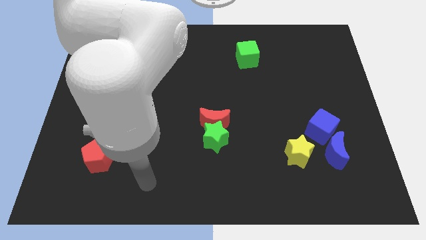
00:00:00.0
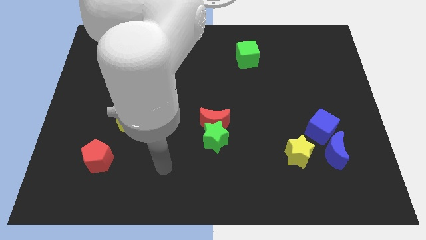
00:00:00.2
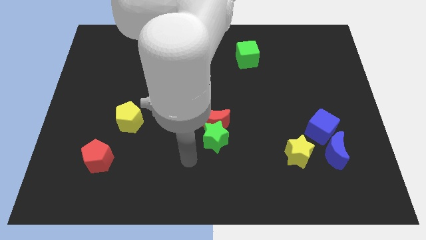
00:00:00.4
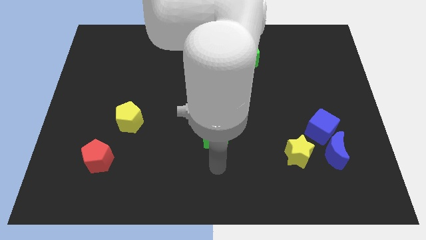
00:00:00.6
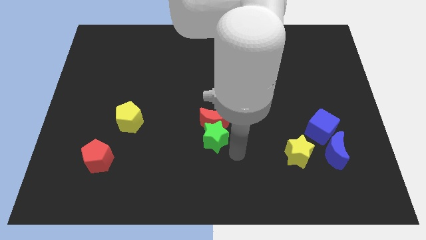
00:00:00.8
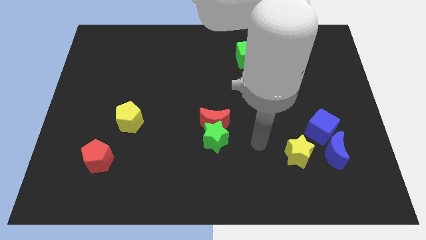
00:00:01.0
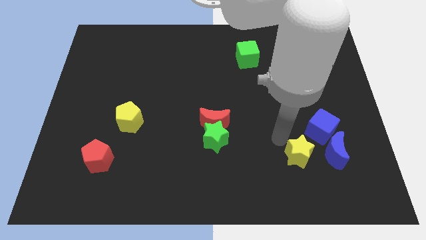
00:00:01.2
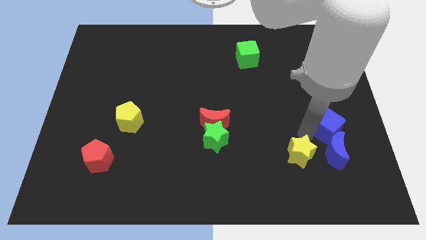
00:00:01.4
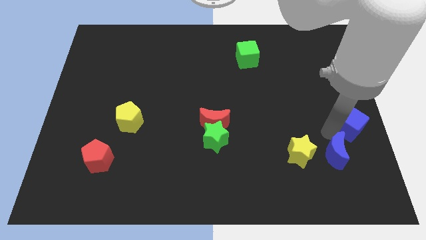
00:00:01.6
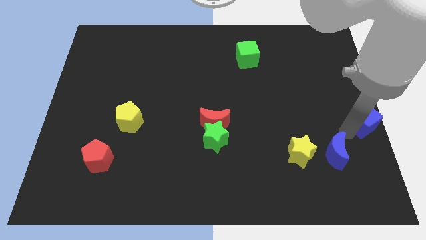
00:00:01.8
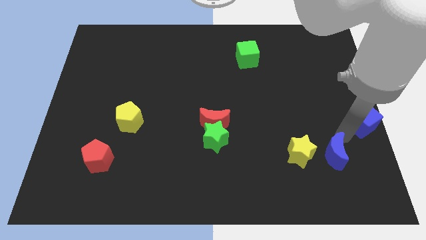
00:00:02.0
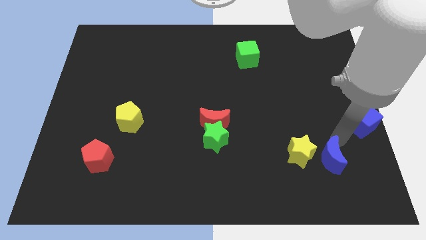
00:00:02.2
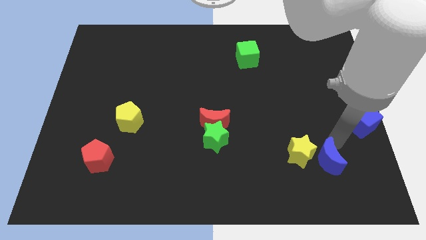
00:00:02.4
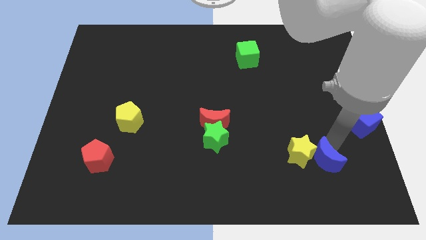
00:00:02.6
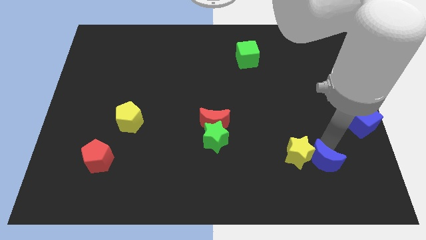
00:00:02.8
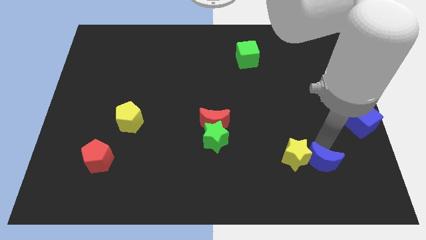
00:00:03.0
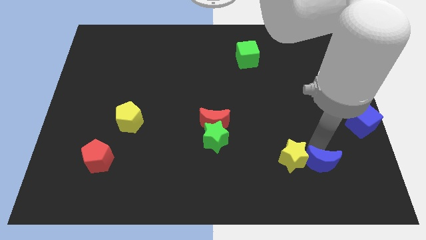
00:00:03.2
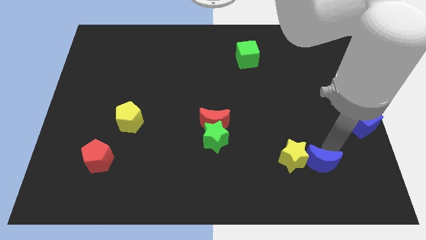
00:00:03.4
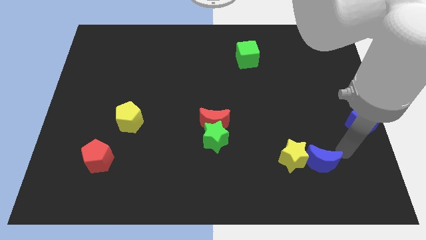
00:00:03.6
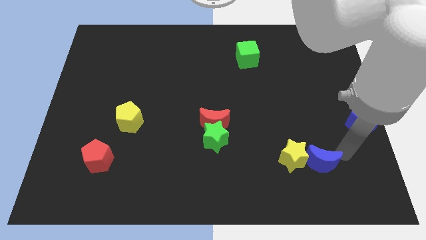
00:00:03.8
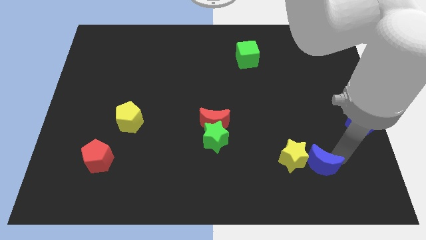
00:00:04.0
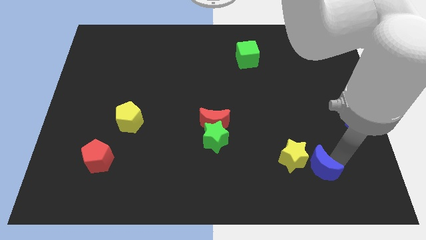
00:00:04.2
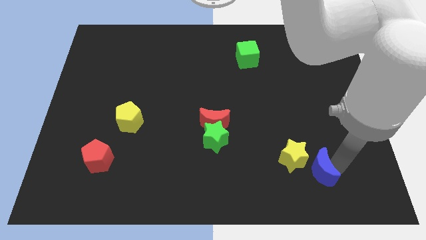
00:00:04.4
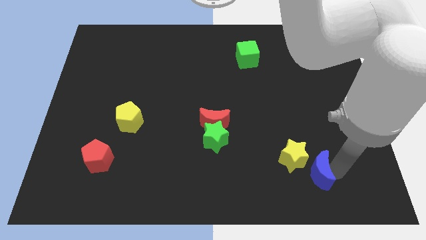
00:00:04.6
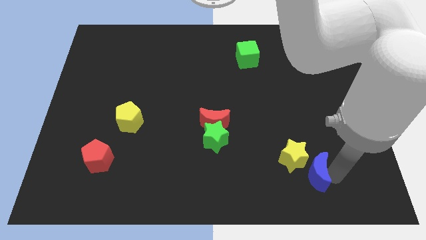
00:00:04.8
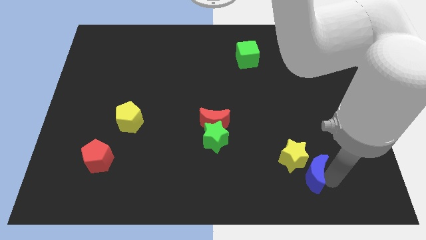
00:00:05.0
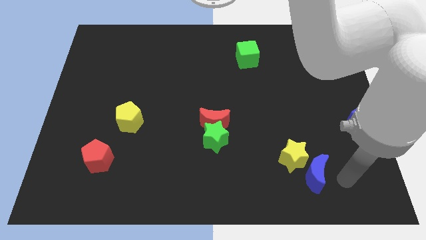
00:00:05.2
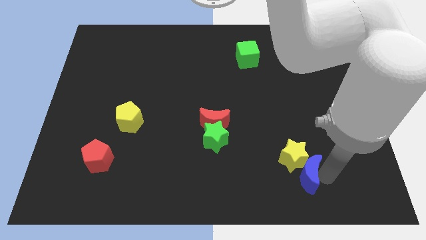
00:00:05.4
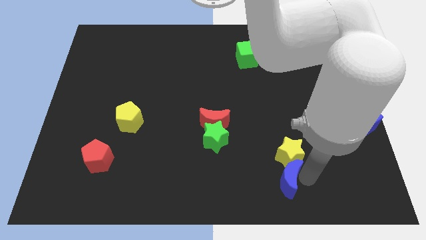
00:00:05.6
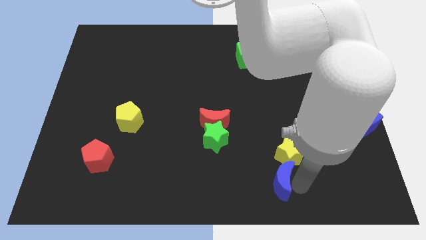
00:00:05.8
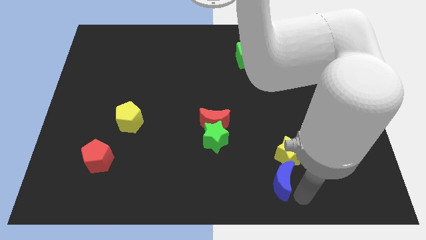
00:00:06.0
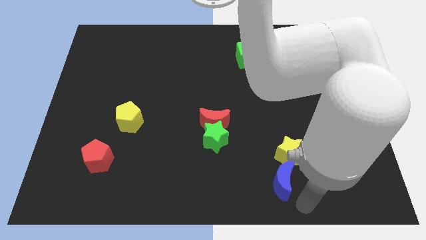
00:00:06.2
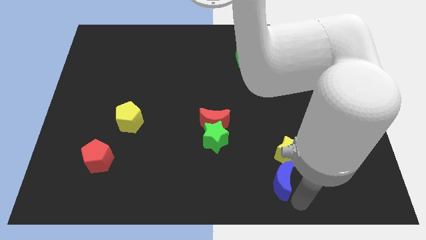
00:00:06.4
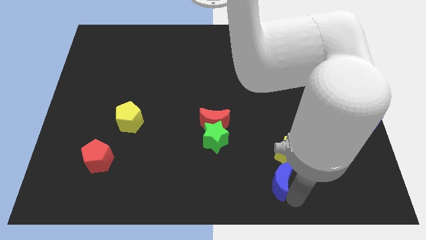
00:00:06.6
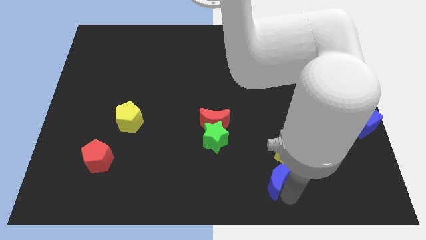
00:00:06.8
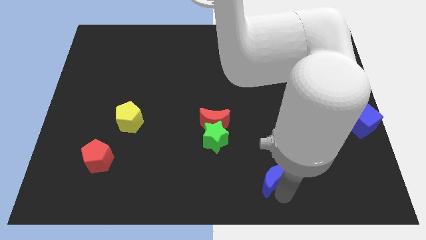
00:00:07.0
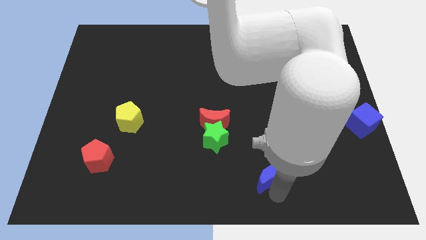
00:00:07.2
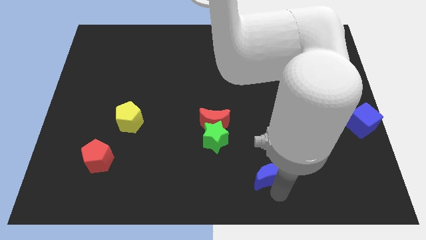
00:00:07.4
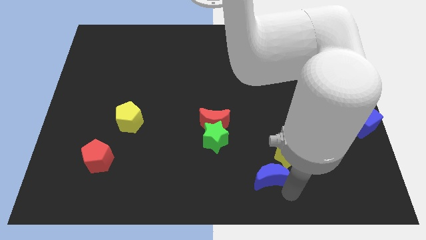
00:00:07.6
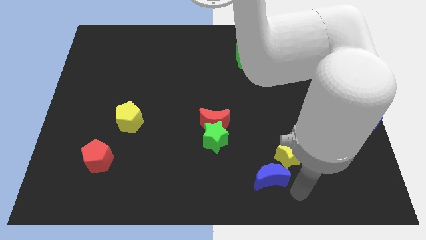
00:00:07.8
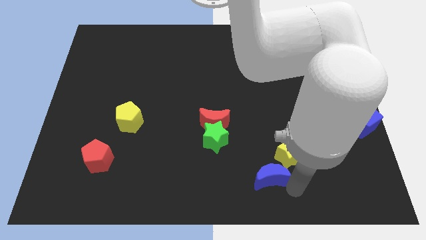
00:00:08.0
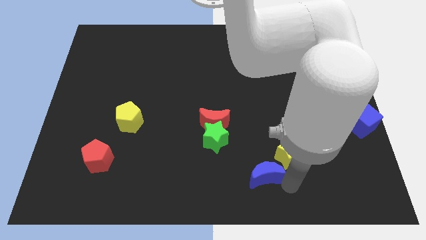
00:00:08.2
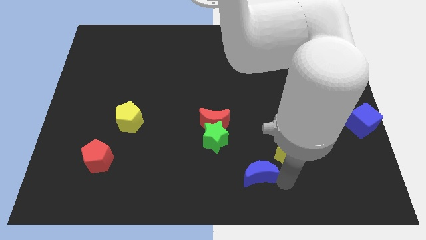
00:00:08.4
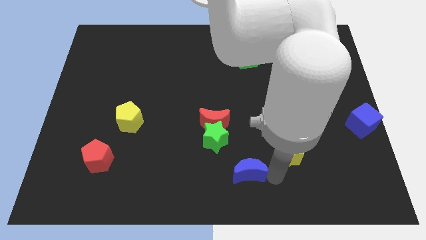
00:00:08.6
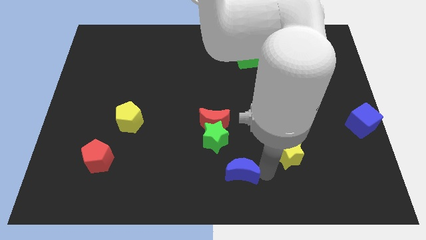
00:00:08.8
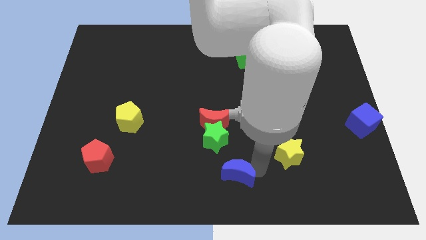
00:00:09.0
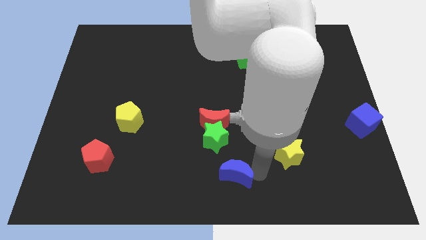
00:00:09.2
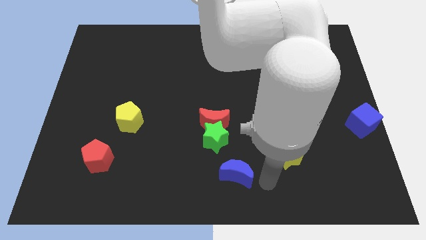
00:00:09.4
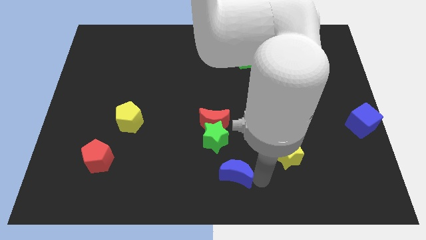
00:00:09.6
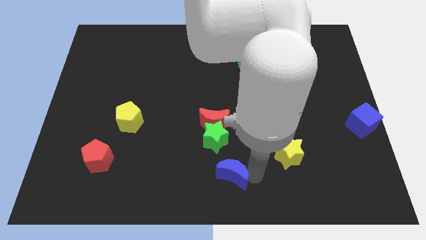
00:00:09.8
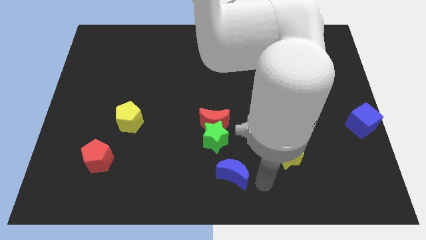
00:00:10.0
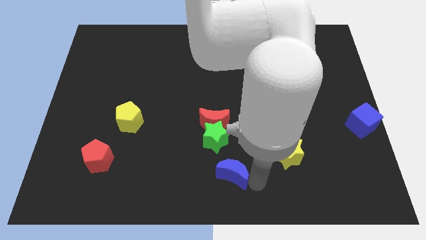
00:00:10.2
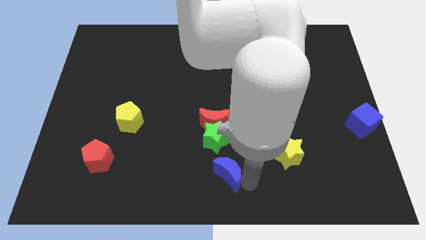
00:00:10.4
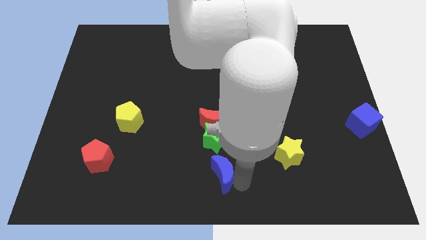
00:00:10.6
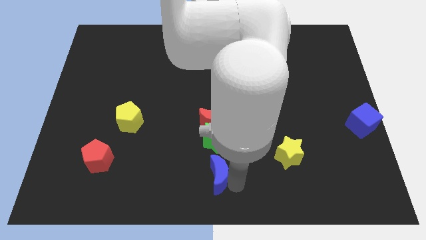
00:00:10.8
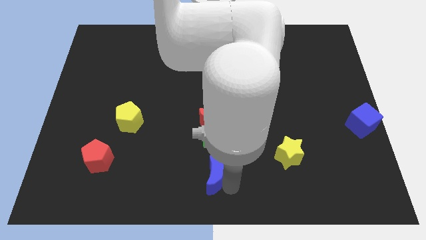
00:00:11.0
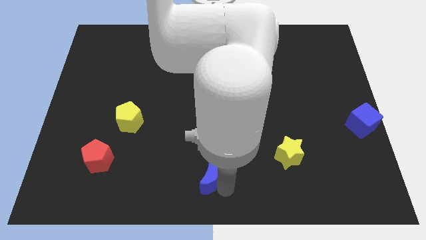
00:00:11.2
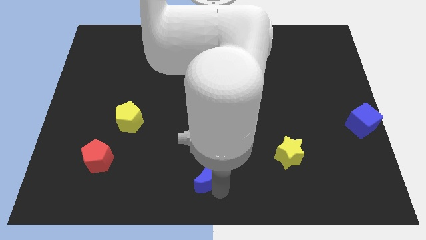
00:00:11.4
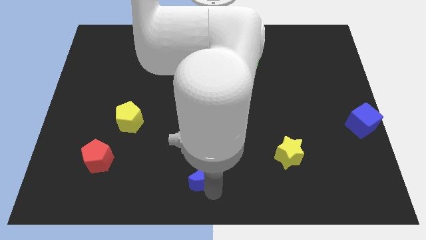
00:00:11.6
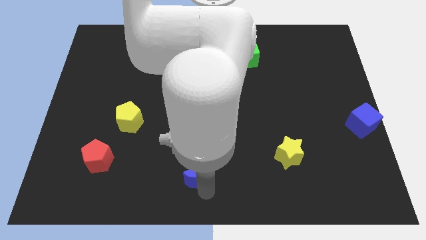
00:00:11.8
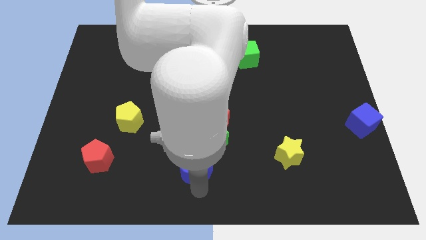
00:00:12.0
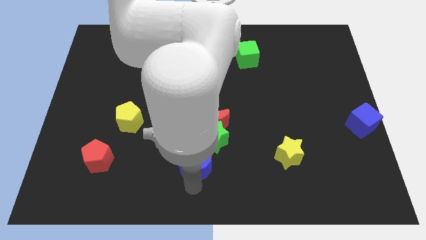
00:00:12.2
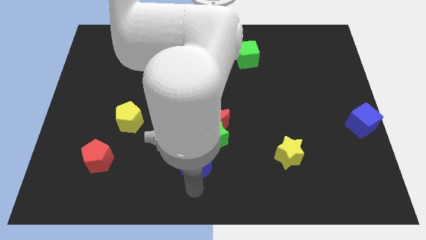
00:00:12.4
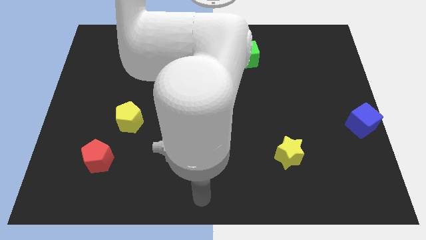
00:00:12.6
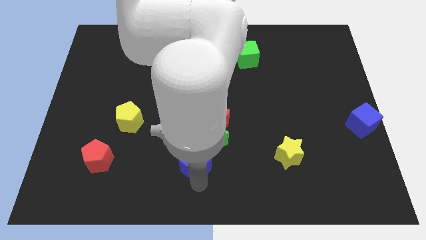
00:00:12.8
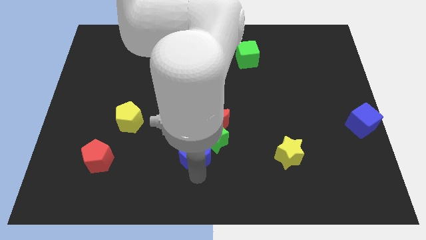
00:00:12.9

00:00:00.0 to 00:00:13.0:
slide the blue moon to the bottom left of the red moon
